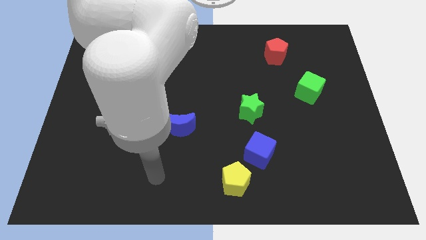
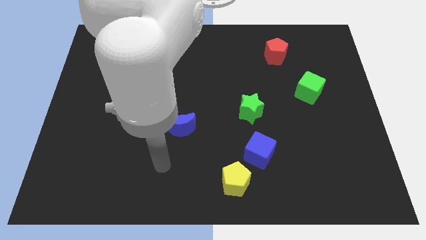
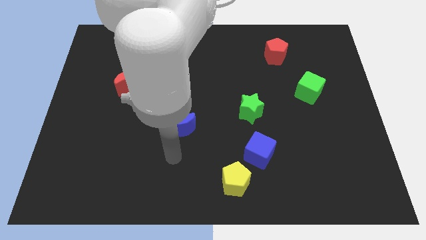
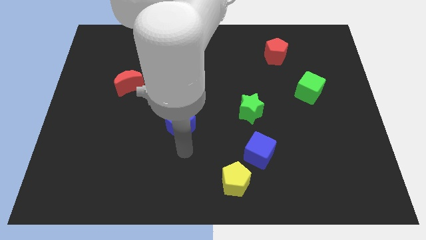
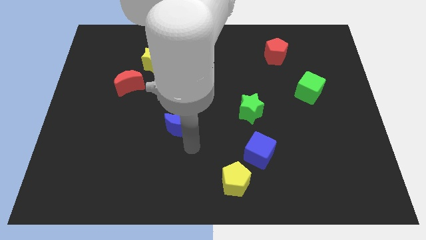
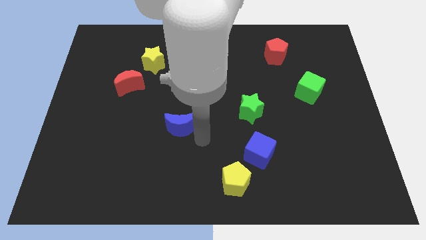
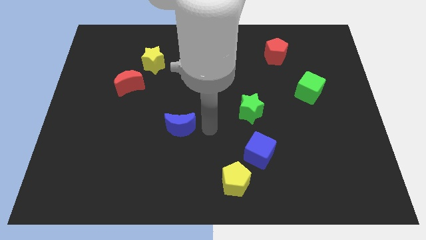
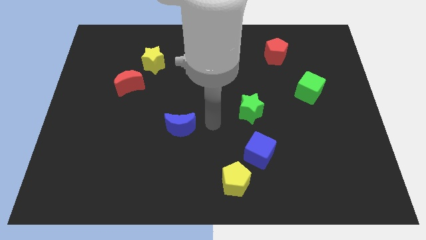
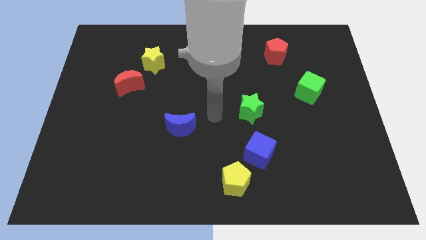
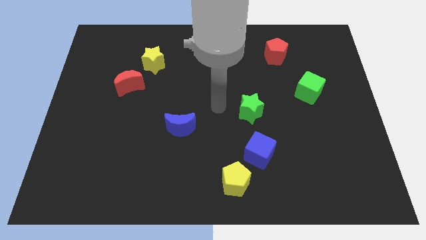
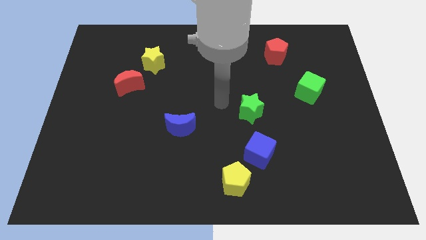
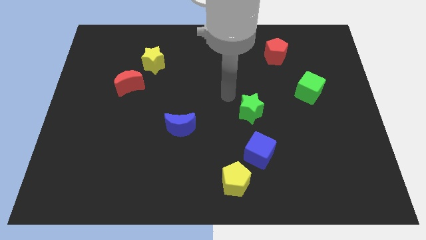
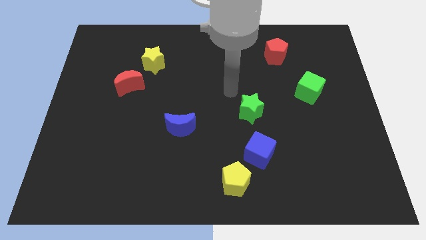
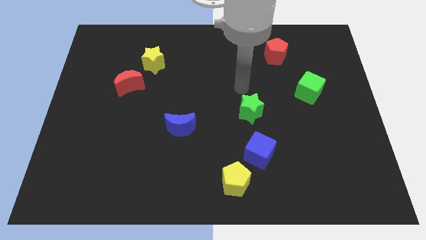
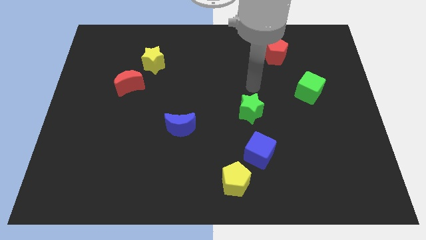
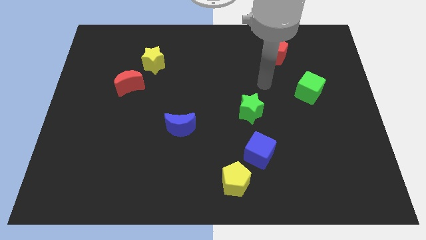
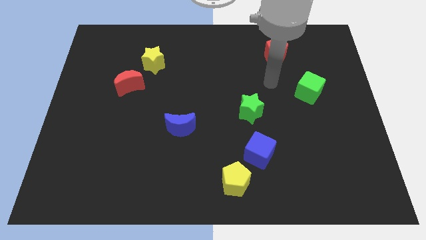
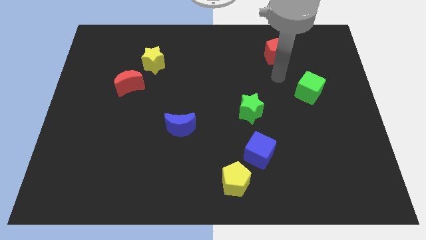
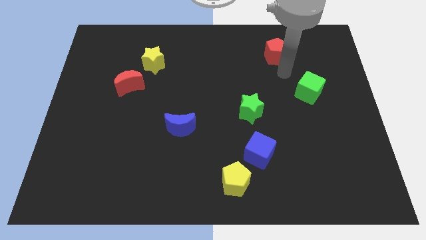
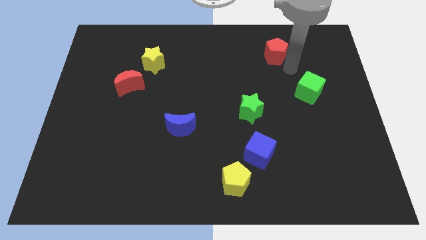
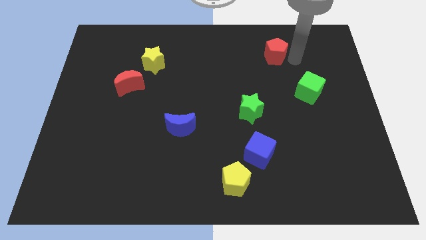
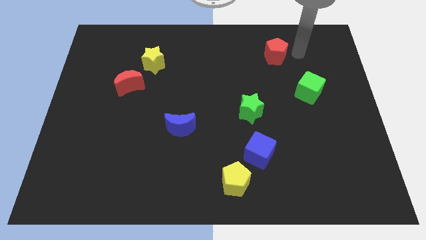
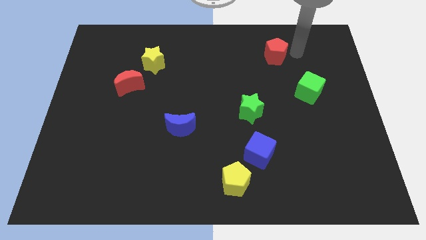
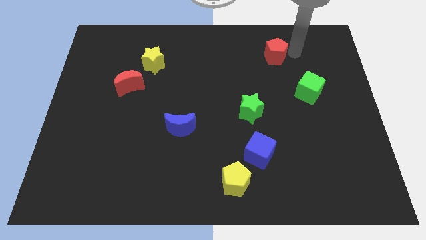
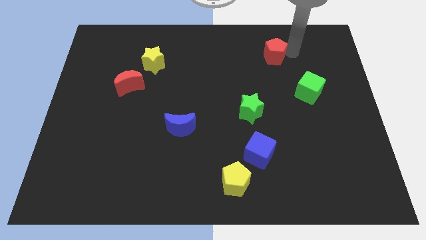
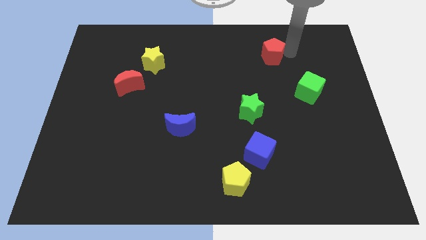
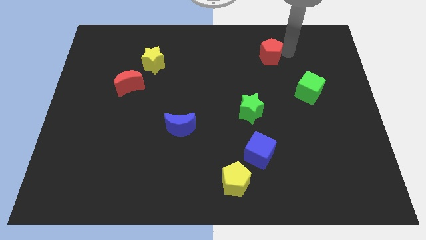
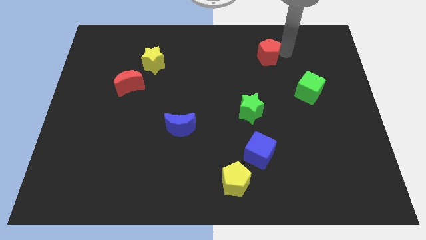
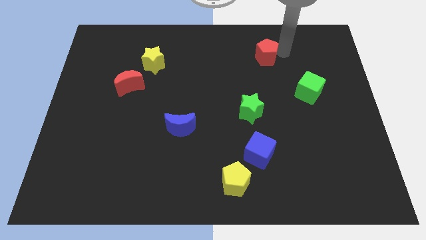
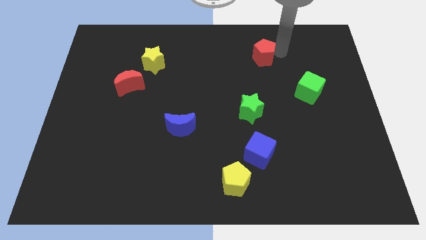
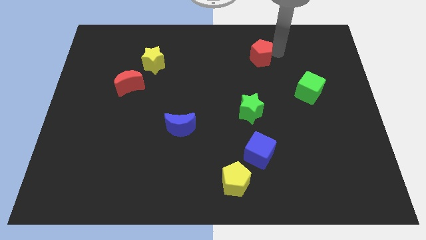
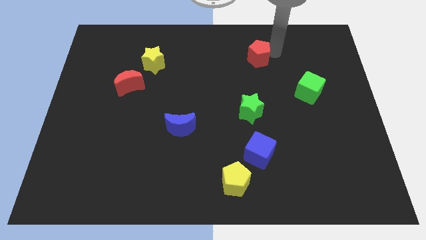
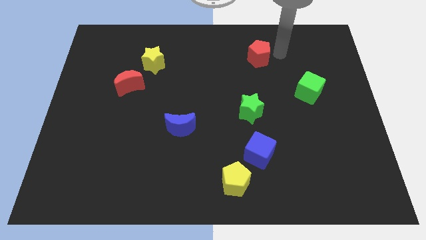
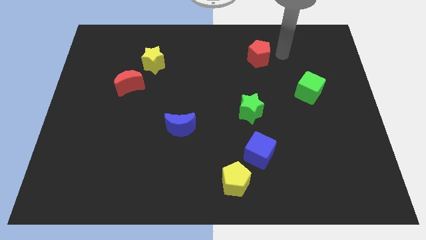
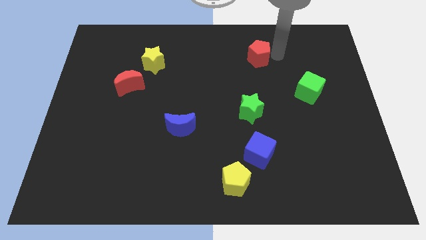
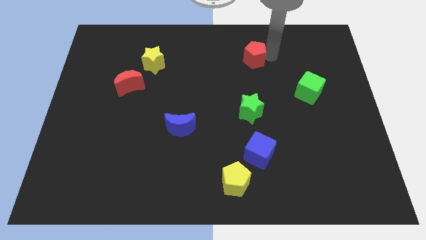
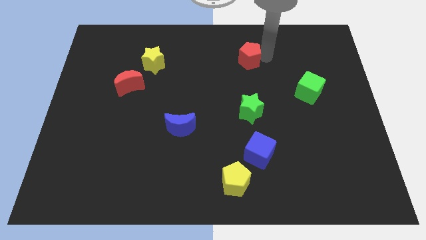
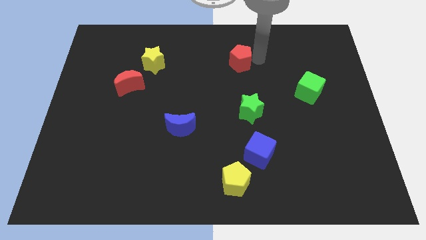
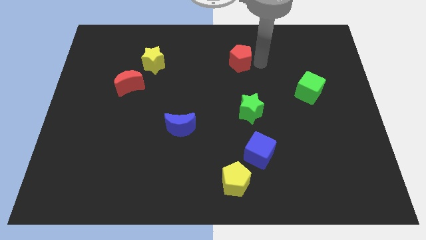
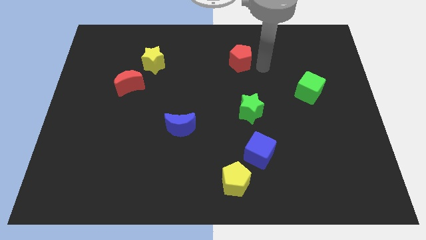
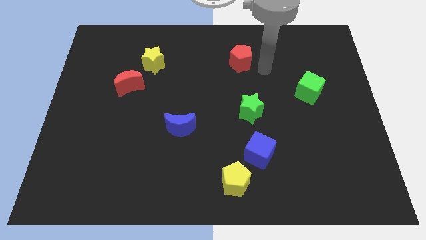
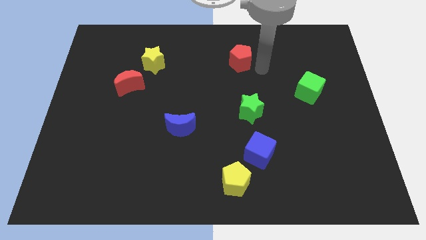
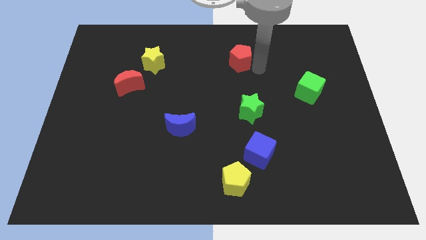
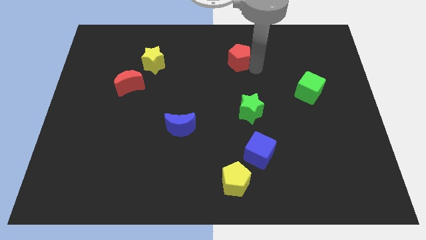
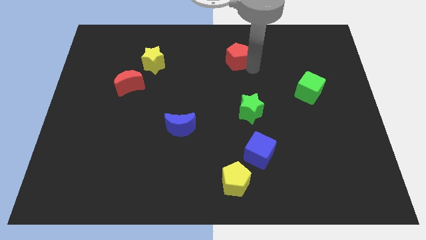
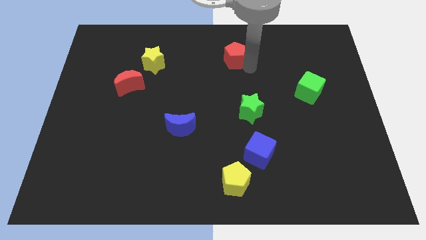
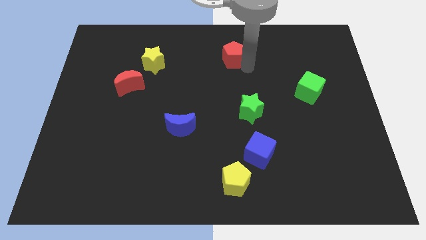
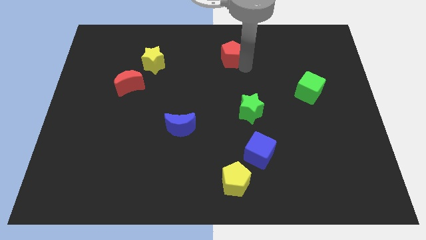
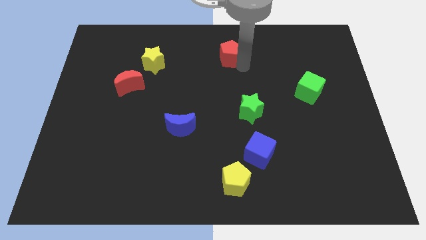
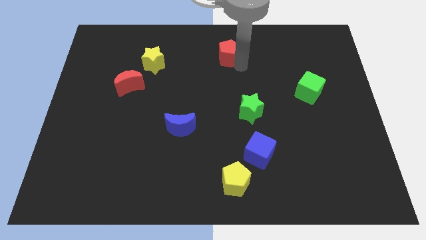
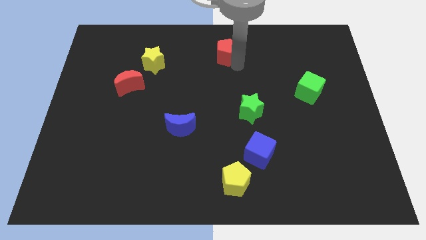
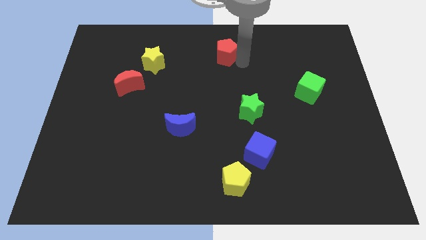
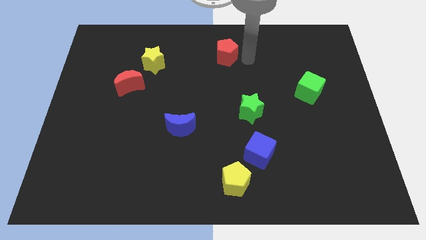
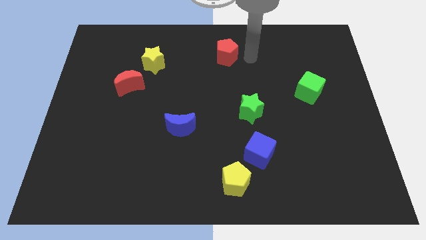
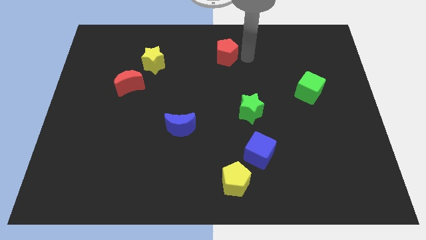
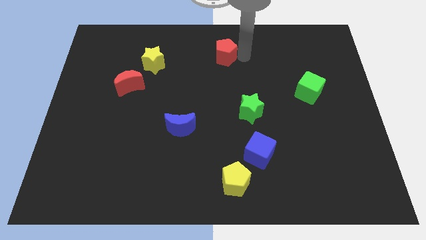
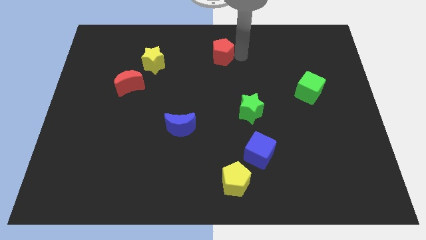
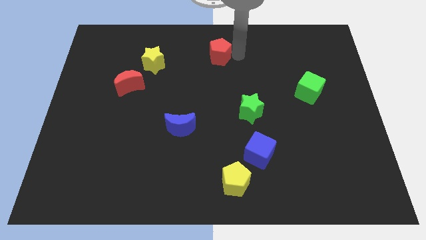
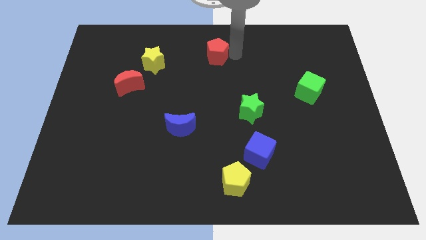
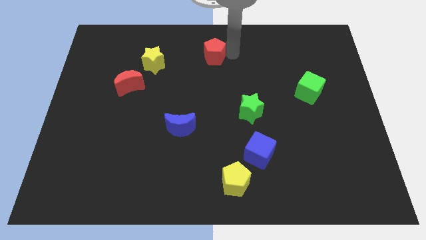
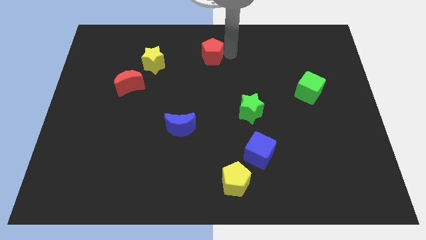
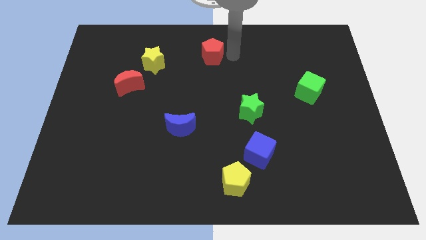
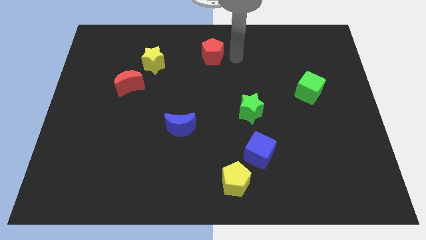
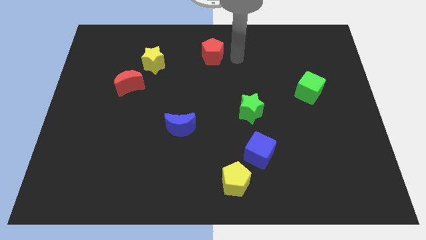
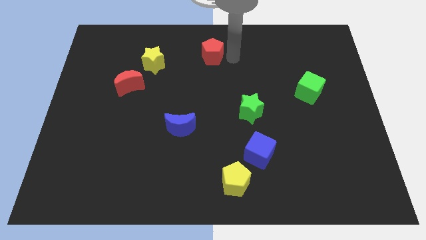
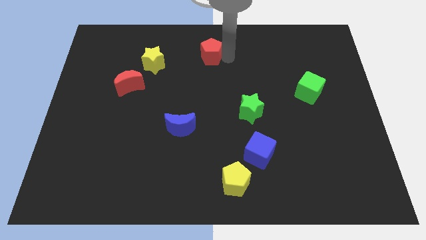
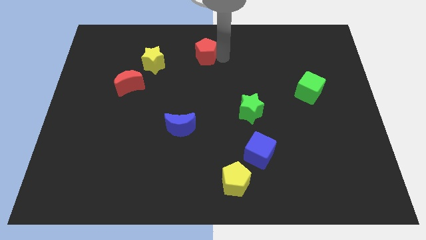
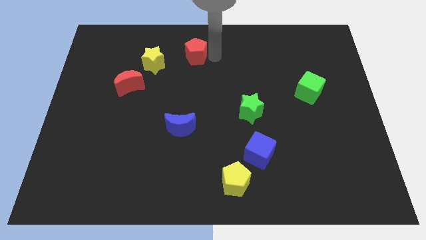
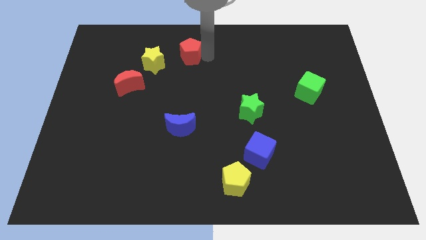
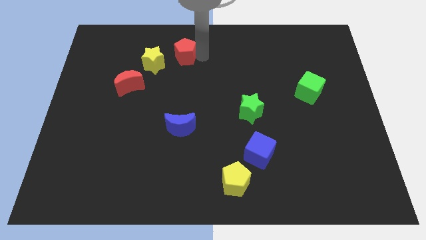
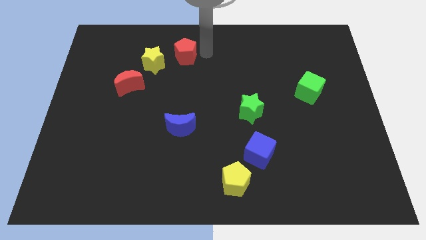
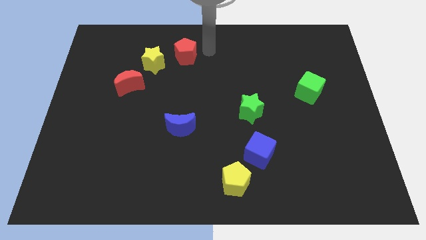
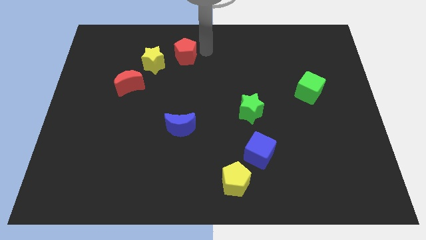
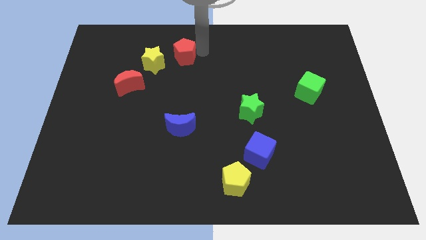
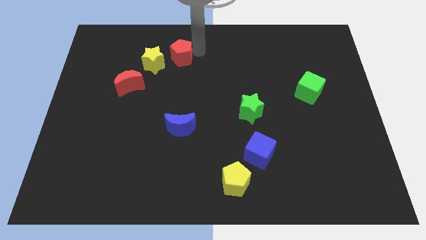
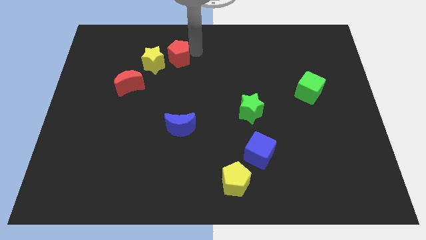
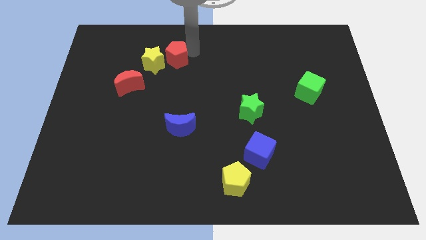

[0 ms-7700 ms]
push the red pentagon close to the yellow star
